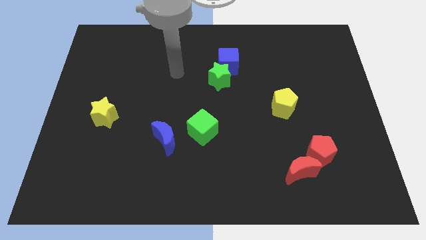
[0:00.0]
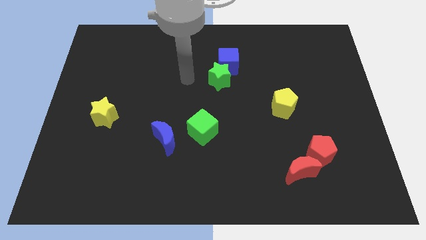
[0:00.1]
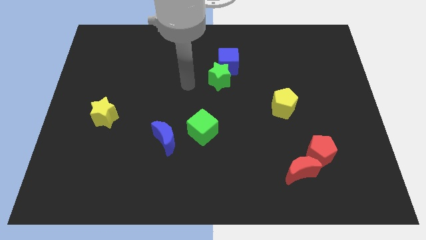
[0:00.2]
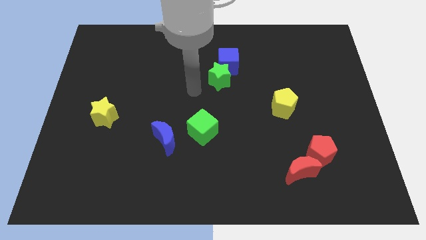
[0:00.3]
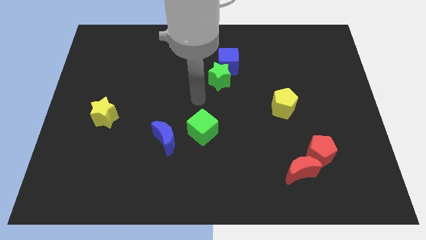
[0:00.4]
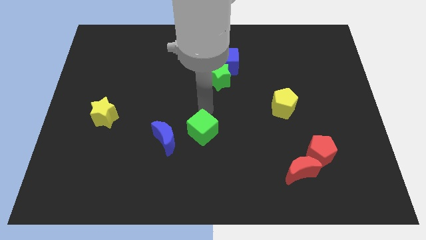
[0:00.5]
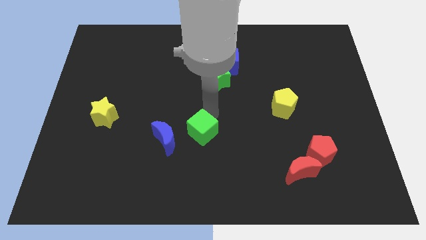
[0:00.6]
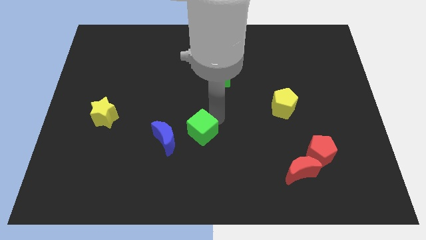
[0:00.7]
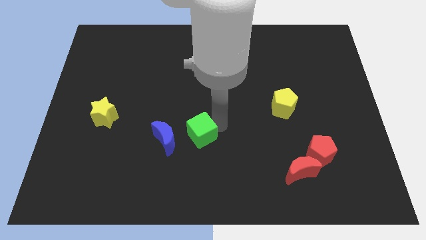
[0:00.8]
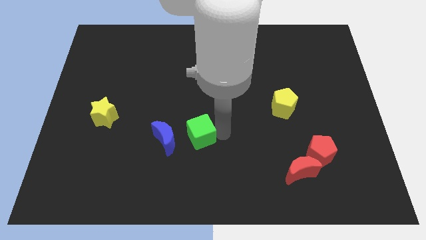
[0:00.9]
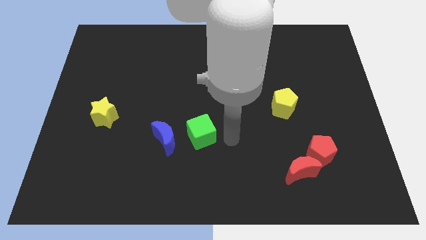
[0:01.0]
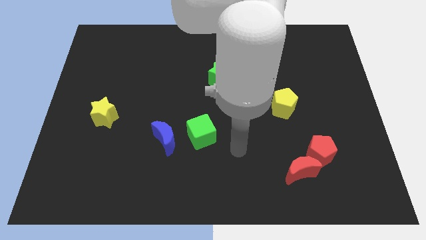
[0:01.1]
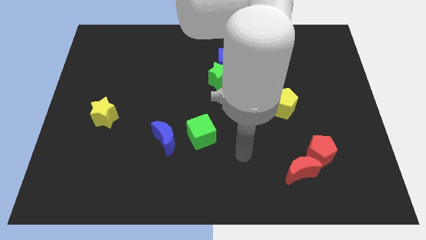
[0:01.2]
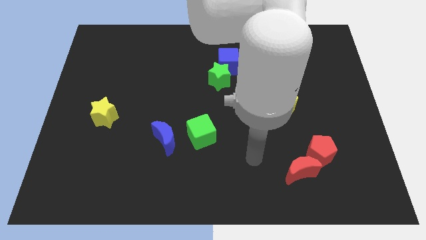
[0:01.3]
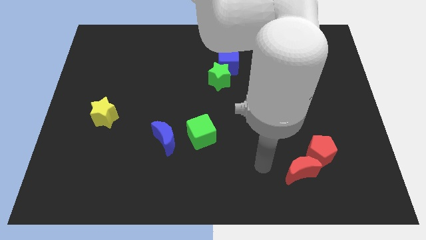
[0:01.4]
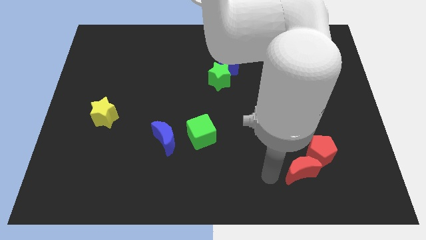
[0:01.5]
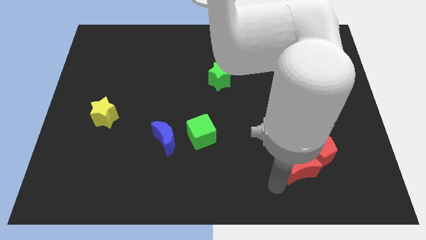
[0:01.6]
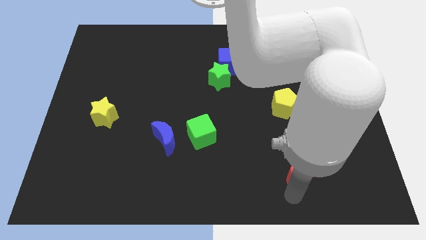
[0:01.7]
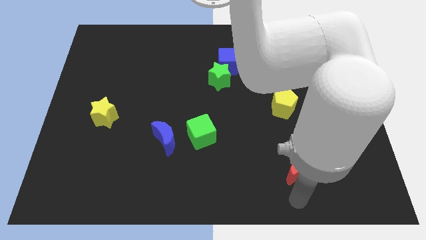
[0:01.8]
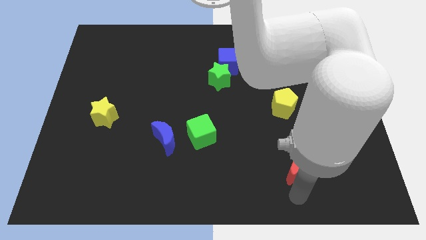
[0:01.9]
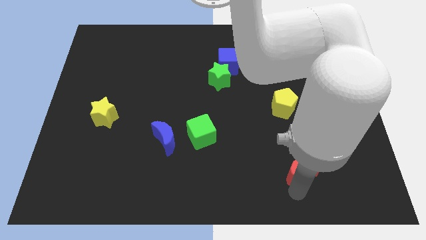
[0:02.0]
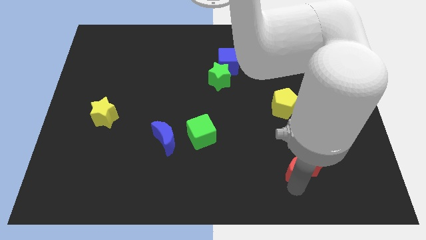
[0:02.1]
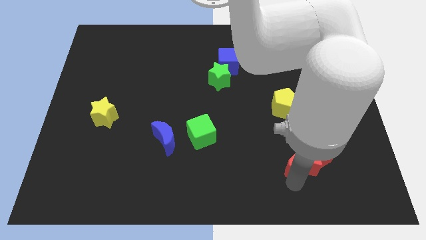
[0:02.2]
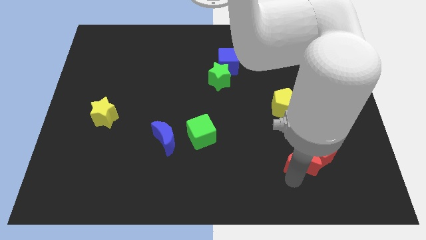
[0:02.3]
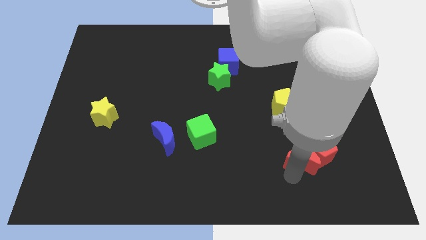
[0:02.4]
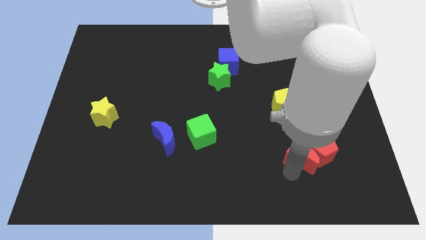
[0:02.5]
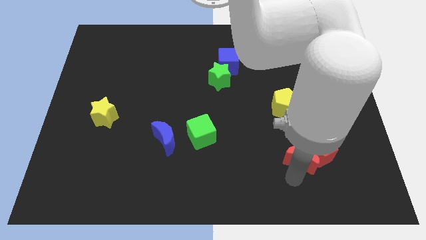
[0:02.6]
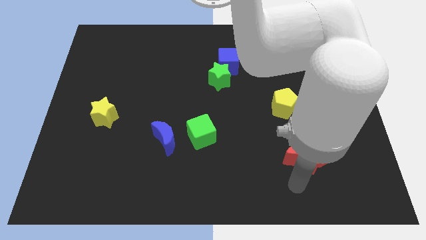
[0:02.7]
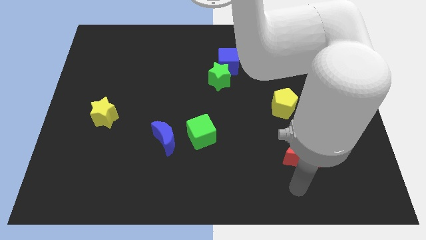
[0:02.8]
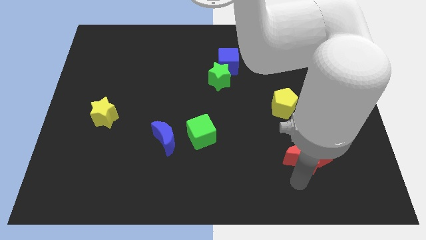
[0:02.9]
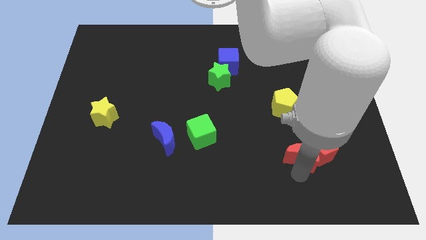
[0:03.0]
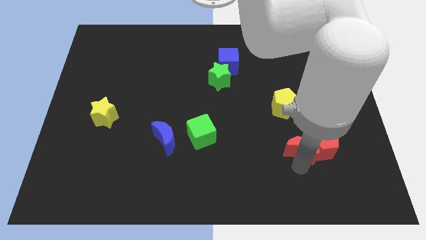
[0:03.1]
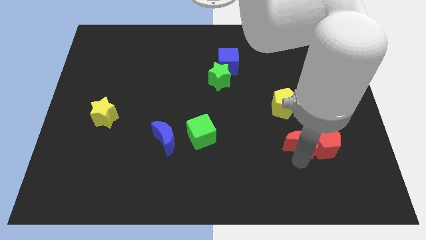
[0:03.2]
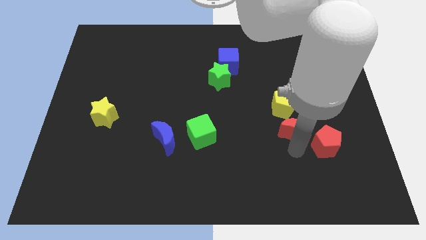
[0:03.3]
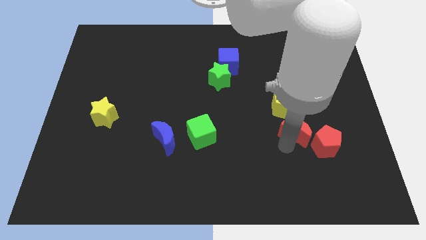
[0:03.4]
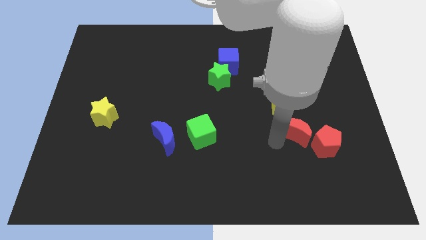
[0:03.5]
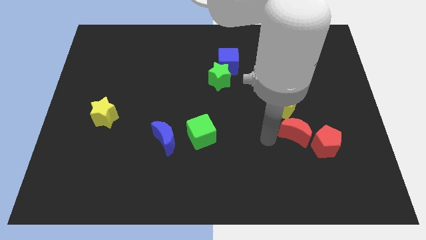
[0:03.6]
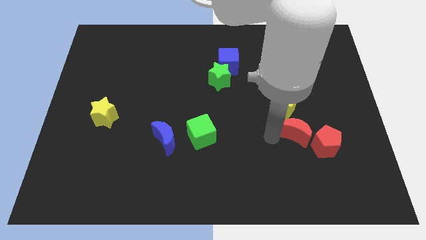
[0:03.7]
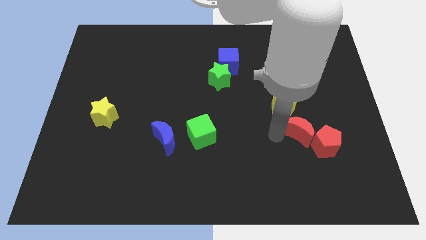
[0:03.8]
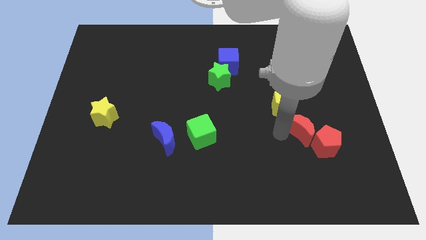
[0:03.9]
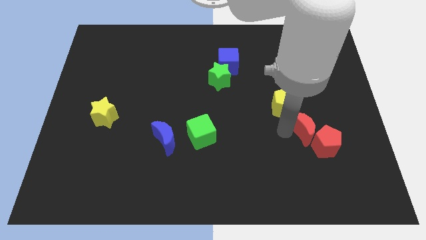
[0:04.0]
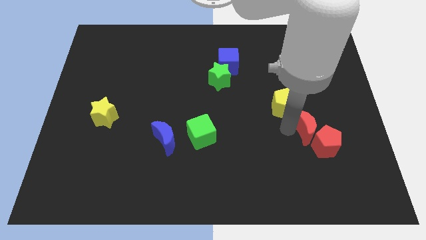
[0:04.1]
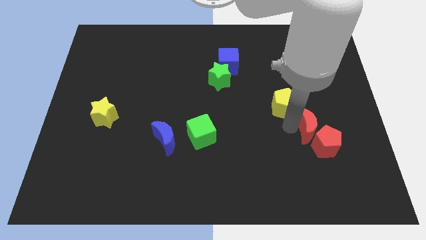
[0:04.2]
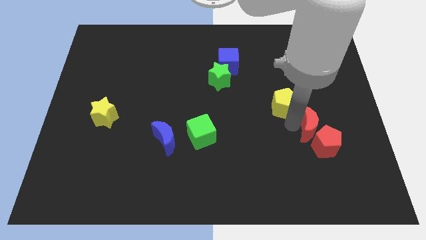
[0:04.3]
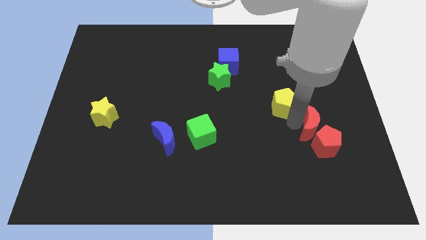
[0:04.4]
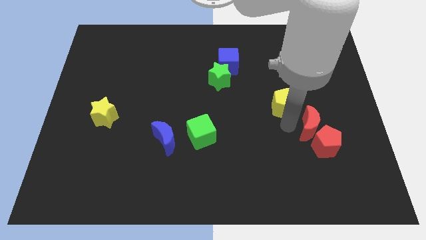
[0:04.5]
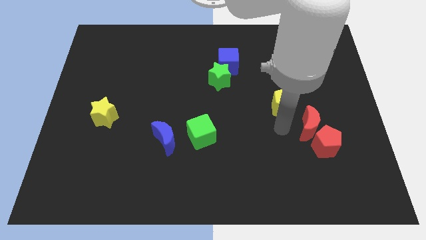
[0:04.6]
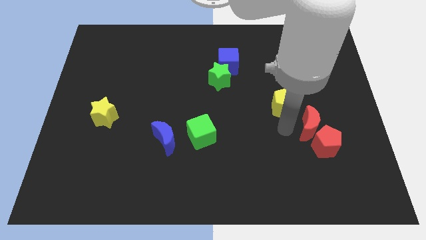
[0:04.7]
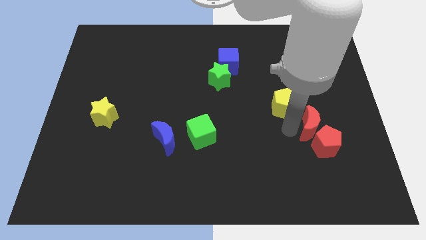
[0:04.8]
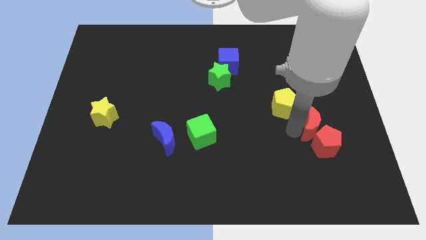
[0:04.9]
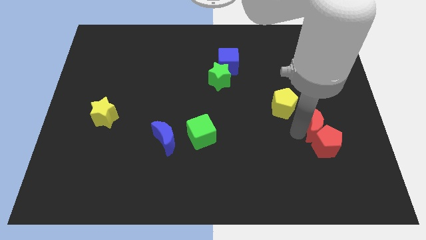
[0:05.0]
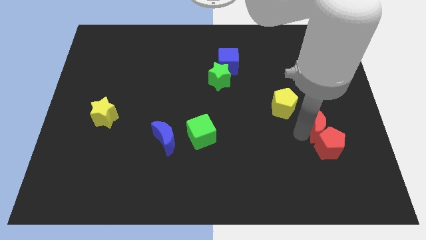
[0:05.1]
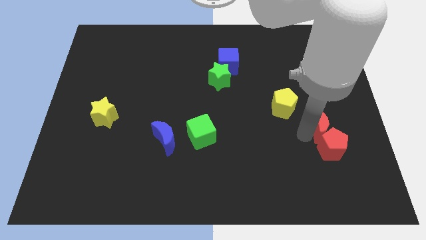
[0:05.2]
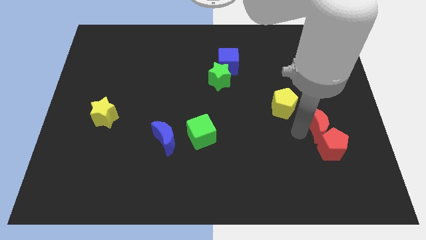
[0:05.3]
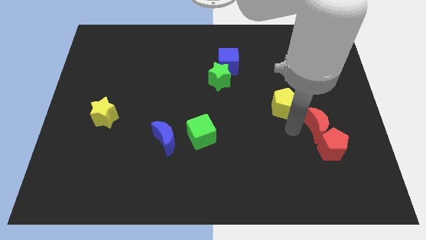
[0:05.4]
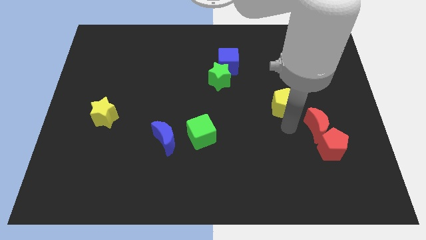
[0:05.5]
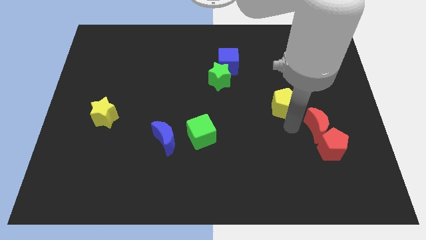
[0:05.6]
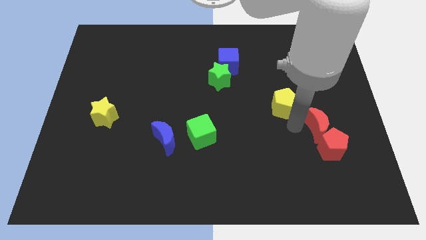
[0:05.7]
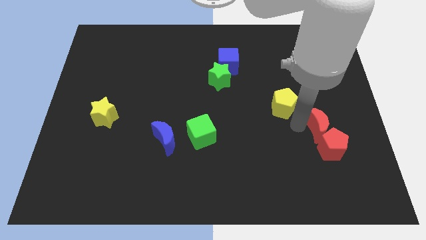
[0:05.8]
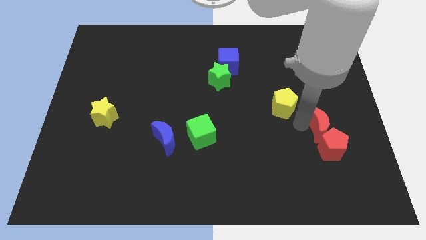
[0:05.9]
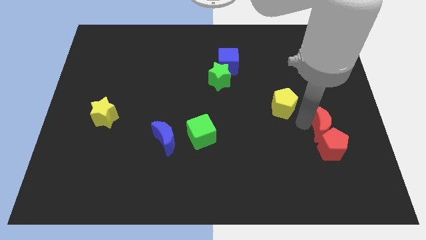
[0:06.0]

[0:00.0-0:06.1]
push the red moon to the top right of the red pentagon

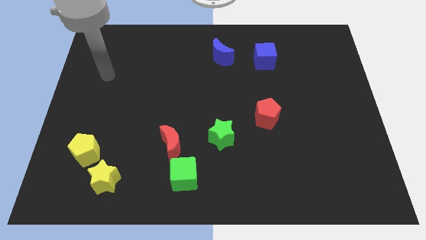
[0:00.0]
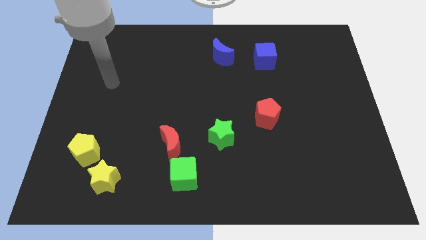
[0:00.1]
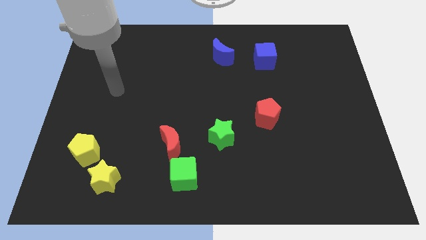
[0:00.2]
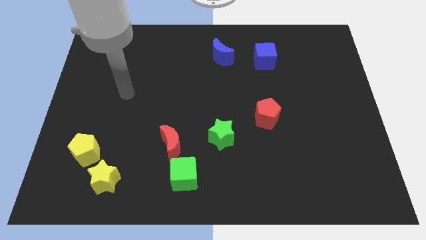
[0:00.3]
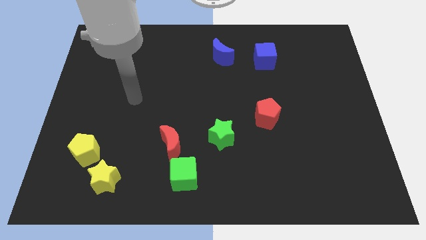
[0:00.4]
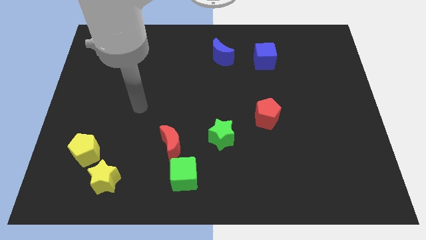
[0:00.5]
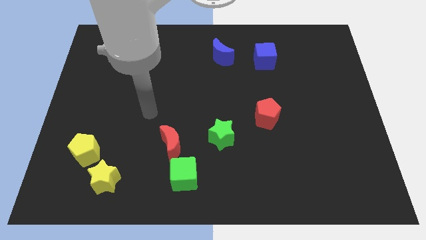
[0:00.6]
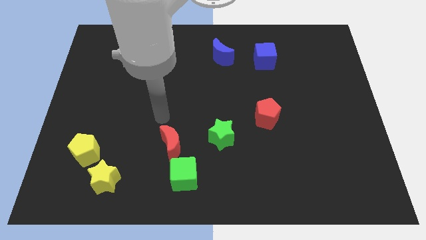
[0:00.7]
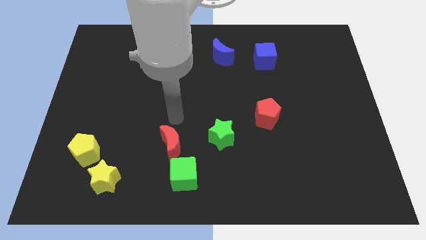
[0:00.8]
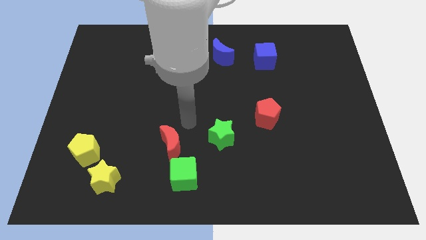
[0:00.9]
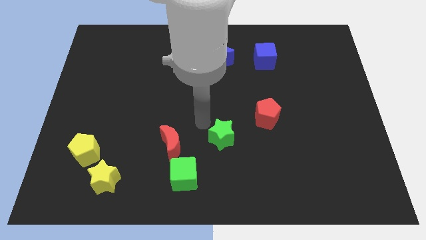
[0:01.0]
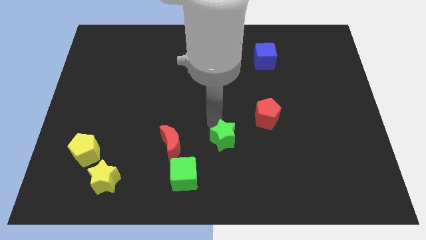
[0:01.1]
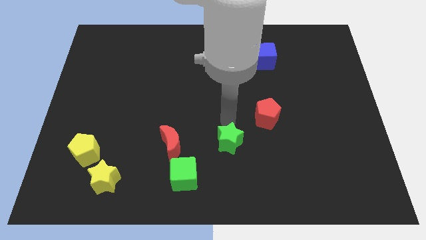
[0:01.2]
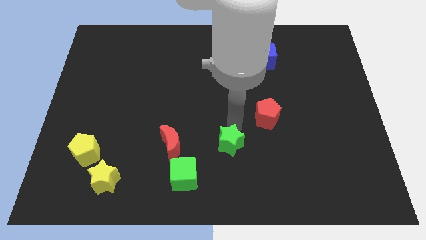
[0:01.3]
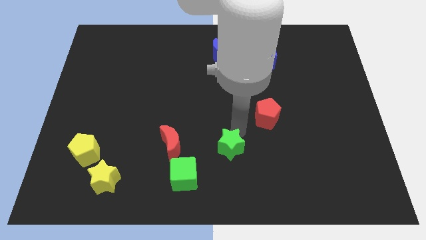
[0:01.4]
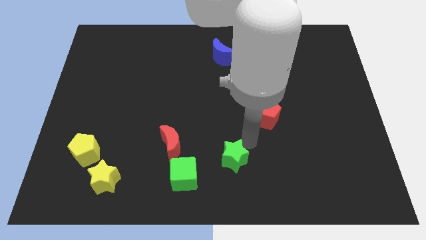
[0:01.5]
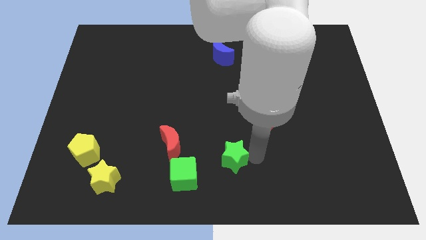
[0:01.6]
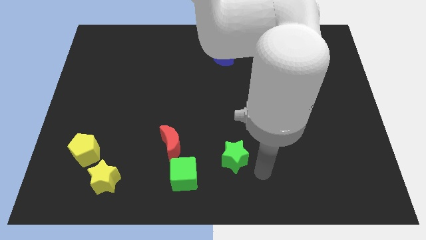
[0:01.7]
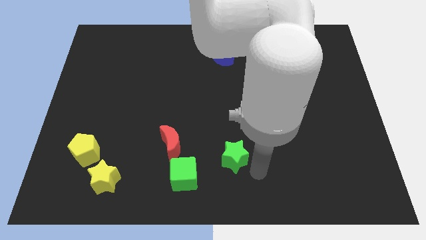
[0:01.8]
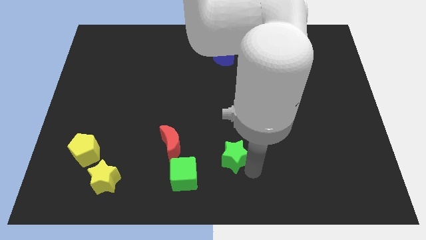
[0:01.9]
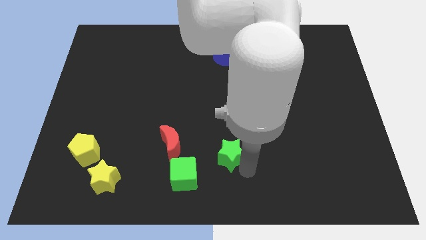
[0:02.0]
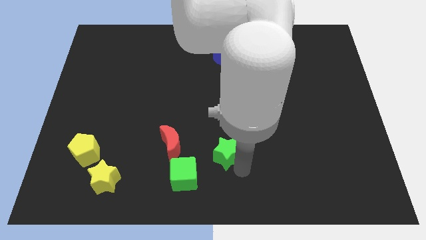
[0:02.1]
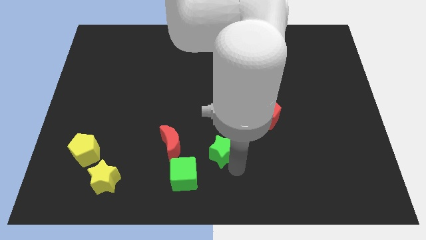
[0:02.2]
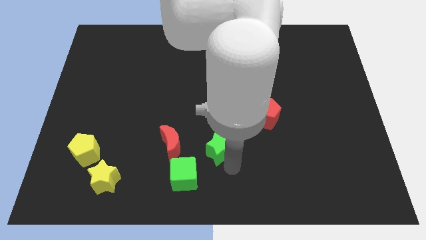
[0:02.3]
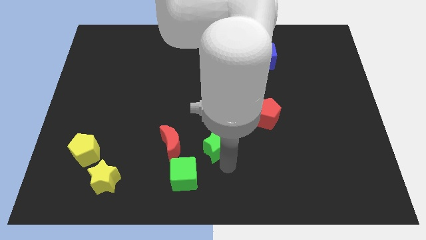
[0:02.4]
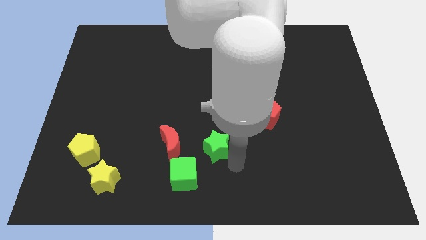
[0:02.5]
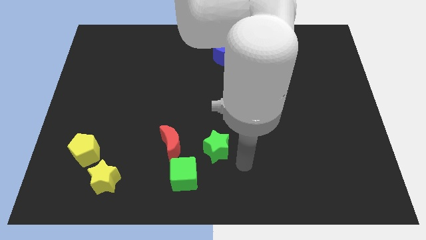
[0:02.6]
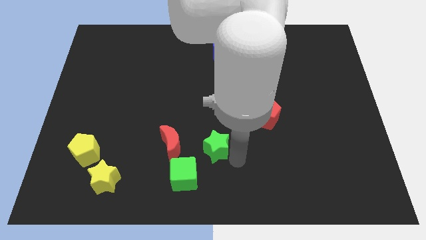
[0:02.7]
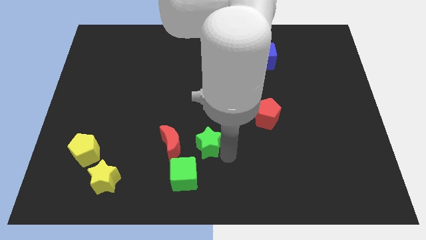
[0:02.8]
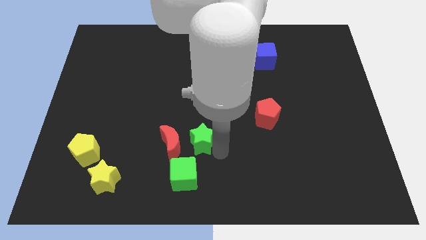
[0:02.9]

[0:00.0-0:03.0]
slide the green star above the green cube
